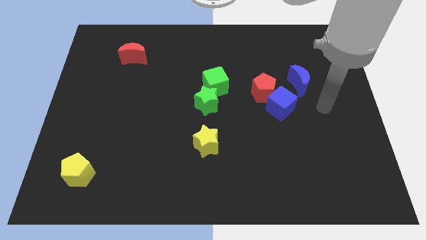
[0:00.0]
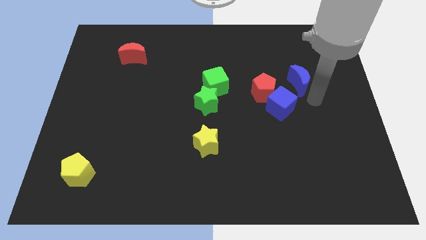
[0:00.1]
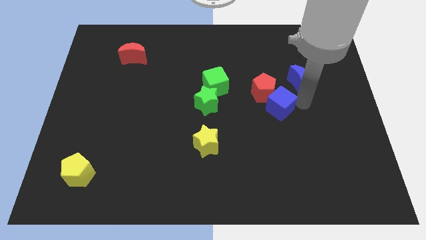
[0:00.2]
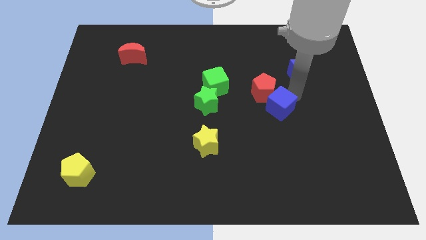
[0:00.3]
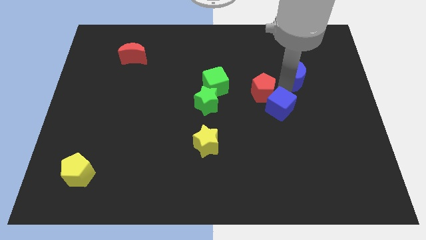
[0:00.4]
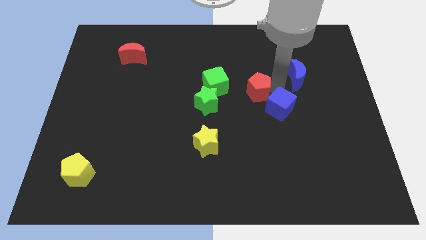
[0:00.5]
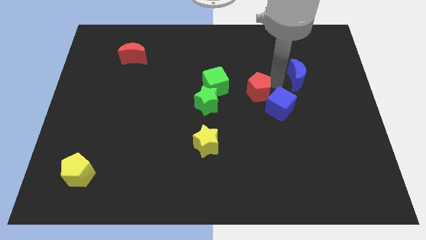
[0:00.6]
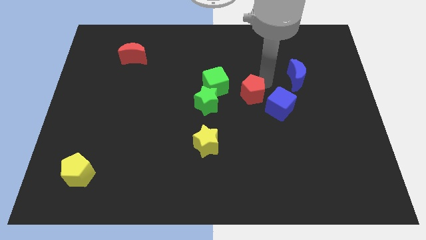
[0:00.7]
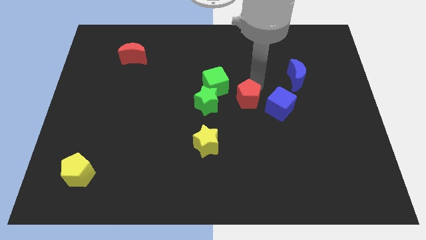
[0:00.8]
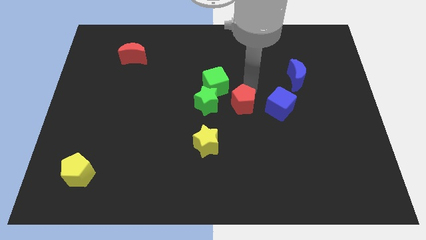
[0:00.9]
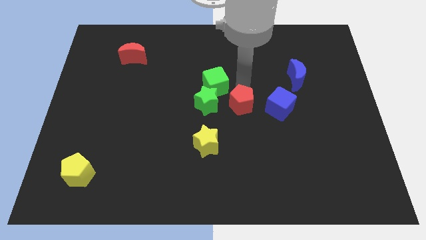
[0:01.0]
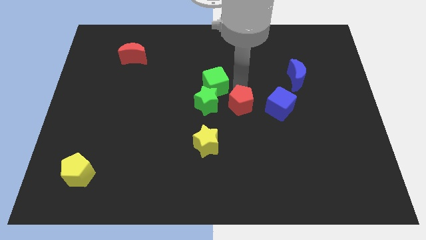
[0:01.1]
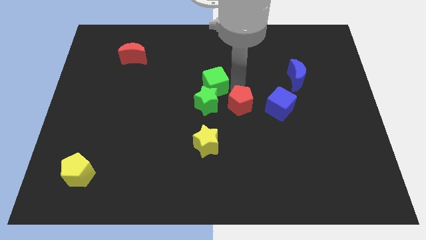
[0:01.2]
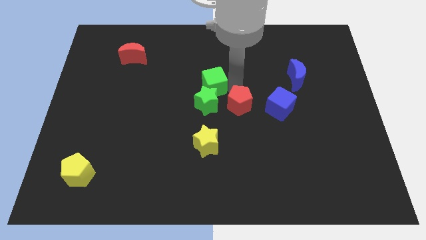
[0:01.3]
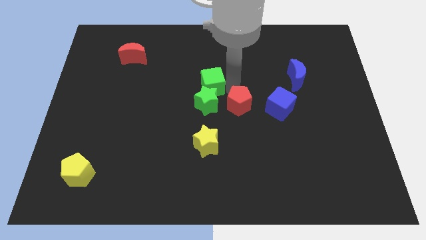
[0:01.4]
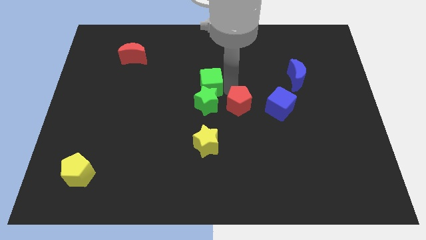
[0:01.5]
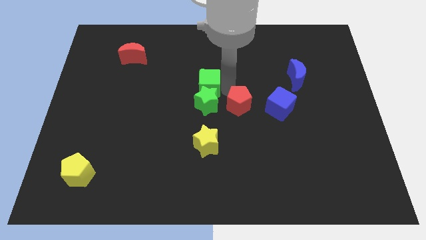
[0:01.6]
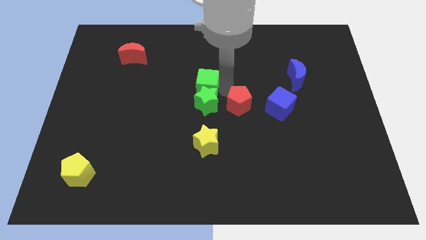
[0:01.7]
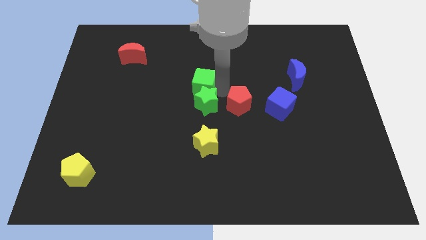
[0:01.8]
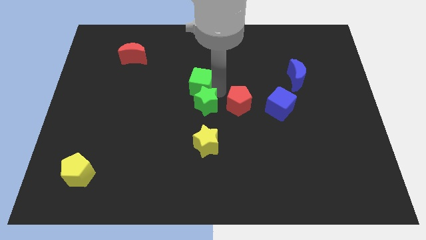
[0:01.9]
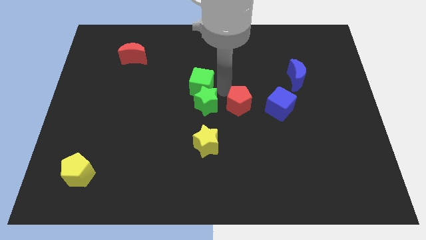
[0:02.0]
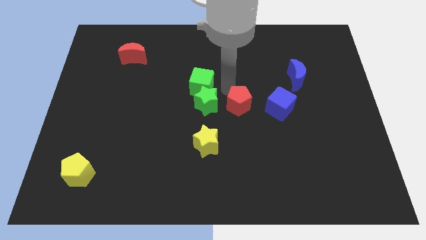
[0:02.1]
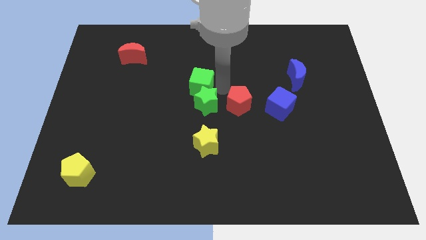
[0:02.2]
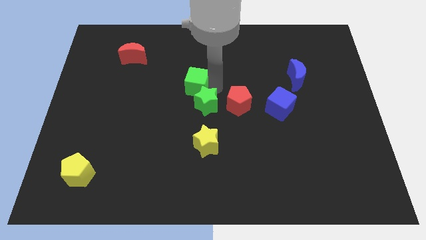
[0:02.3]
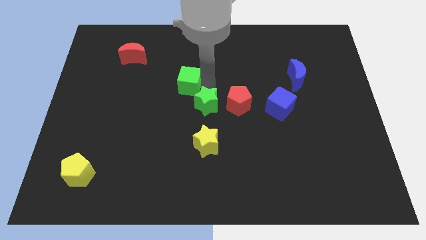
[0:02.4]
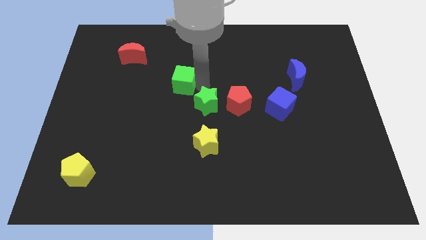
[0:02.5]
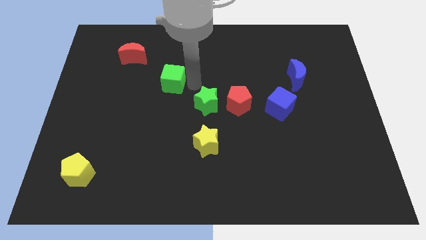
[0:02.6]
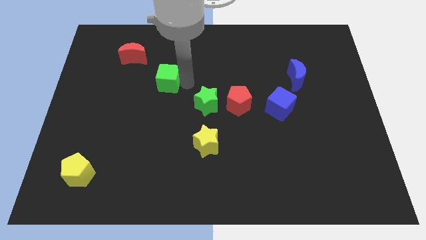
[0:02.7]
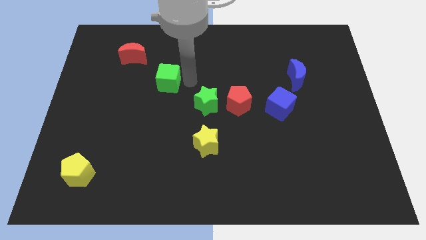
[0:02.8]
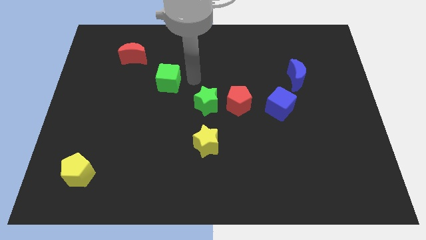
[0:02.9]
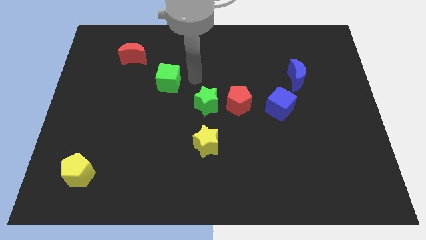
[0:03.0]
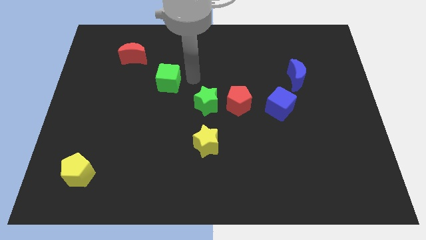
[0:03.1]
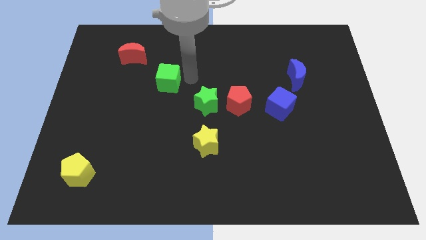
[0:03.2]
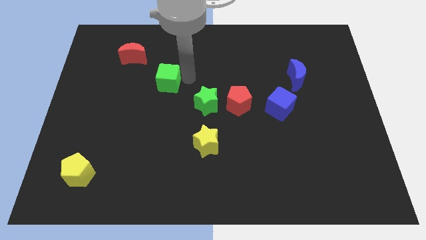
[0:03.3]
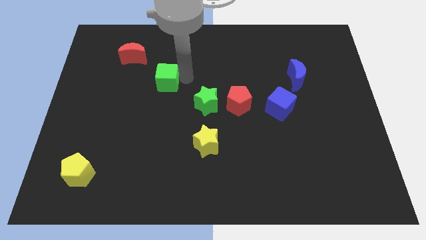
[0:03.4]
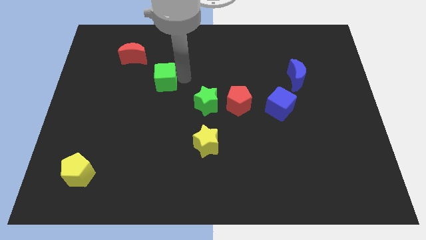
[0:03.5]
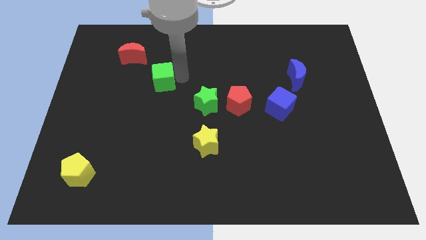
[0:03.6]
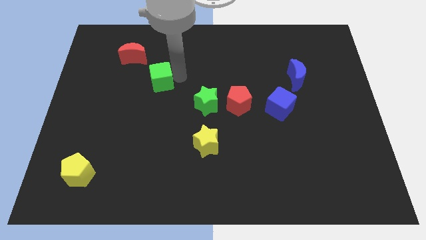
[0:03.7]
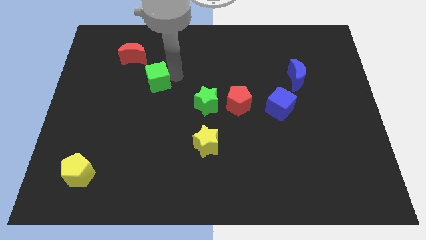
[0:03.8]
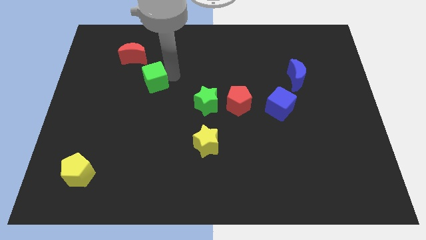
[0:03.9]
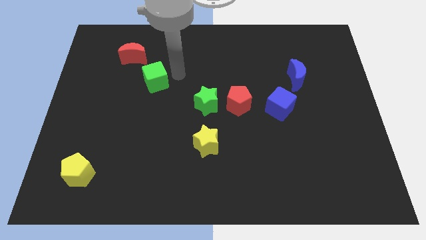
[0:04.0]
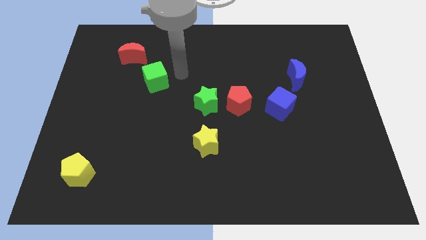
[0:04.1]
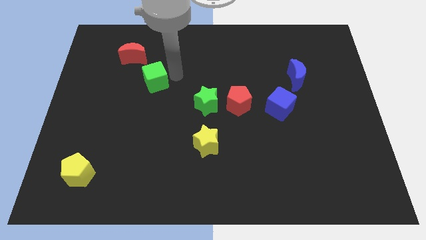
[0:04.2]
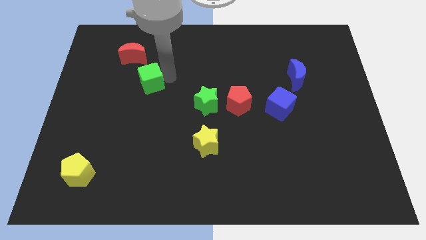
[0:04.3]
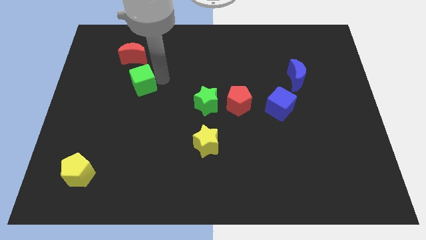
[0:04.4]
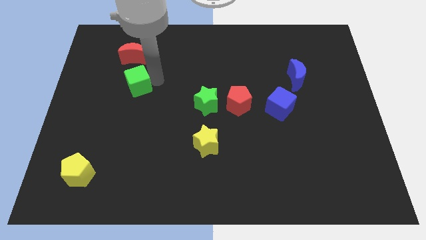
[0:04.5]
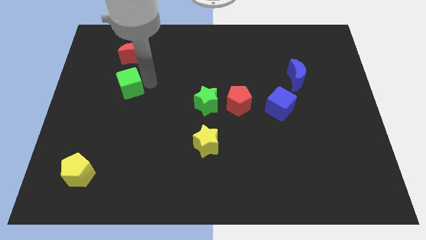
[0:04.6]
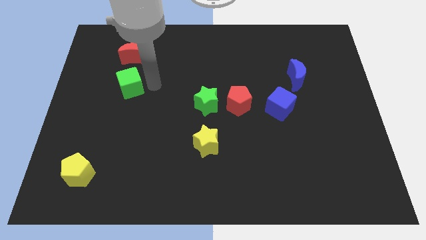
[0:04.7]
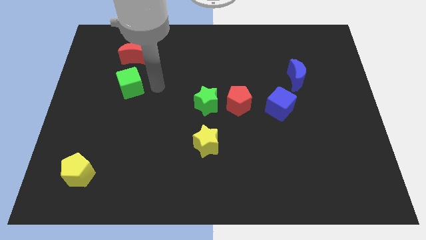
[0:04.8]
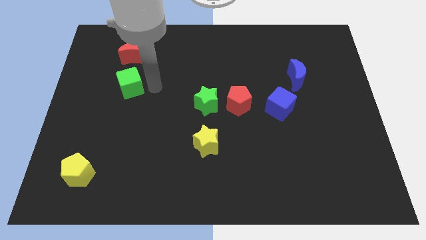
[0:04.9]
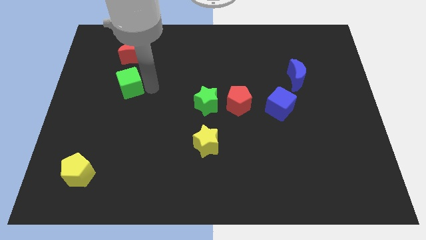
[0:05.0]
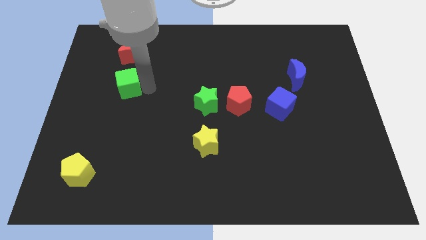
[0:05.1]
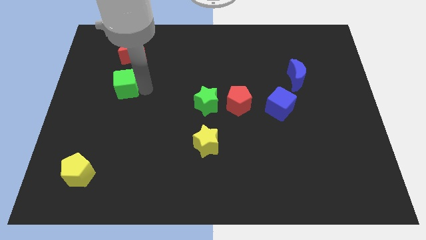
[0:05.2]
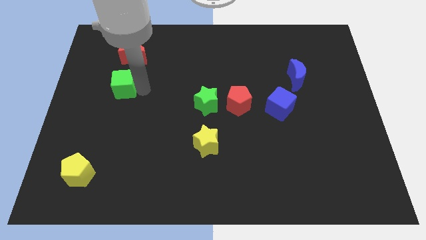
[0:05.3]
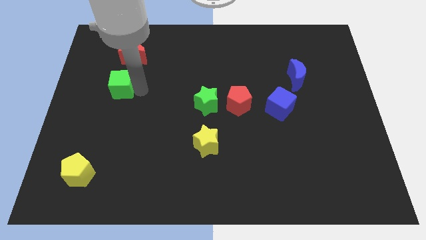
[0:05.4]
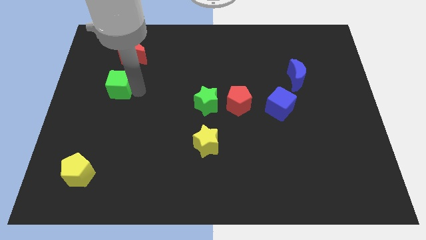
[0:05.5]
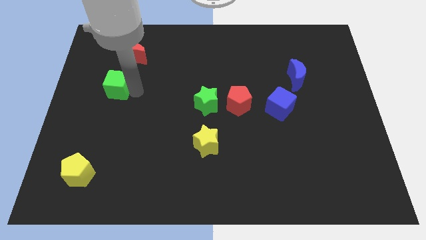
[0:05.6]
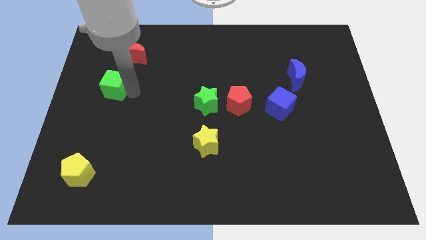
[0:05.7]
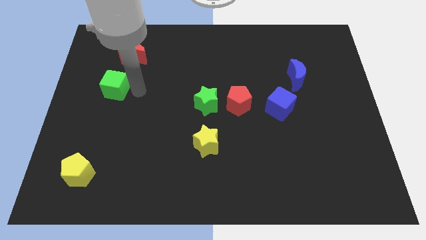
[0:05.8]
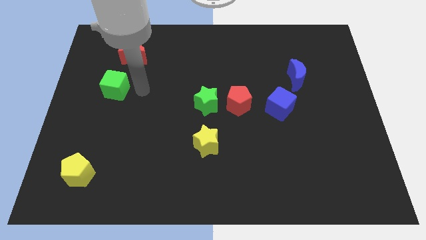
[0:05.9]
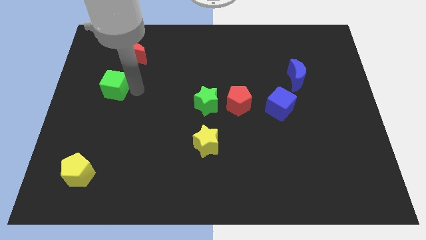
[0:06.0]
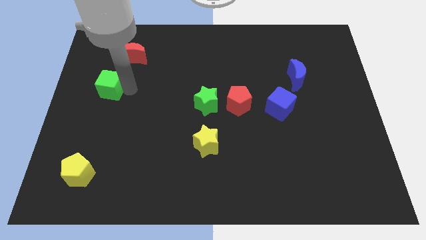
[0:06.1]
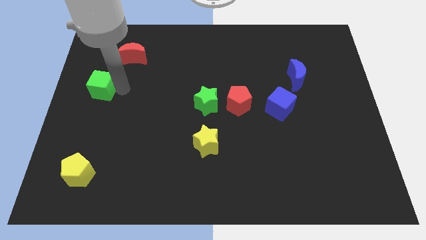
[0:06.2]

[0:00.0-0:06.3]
slide the green cube to the center left
